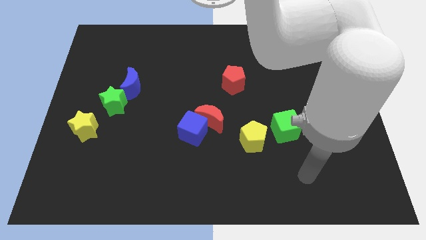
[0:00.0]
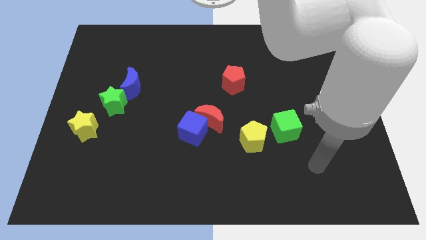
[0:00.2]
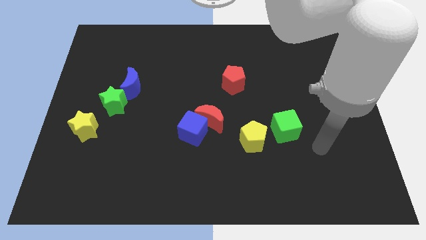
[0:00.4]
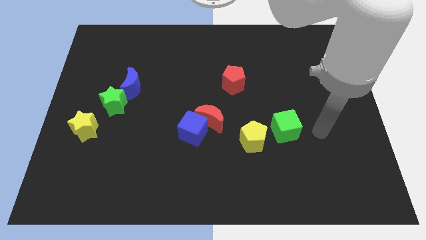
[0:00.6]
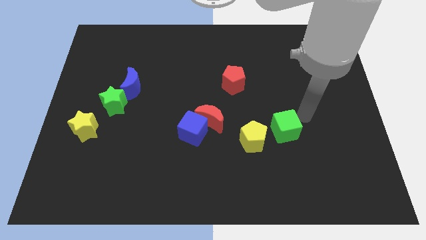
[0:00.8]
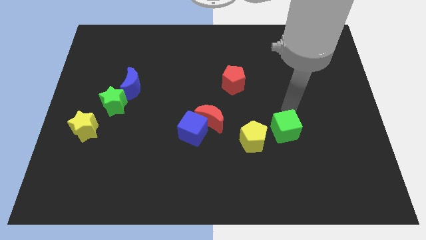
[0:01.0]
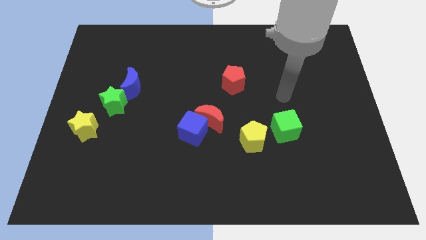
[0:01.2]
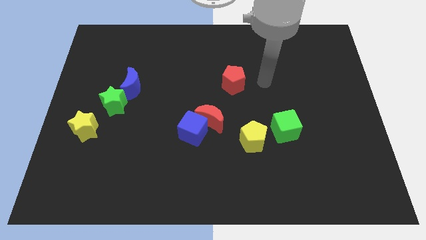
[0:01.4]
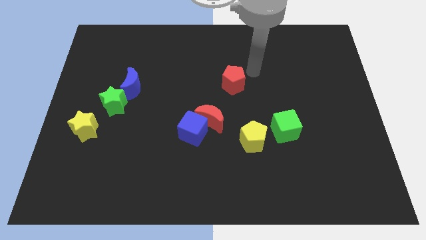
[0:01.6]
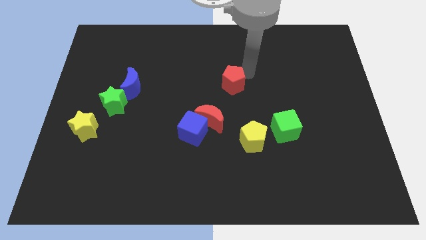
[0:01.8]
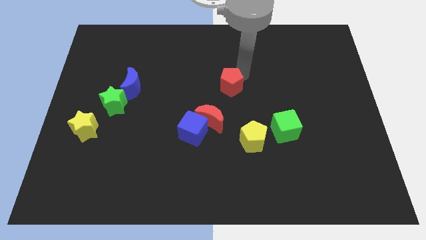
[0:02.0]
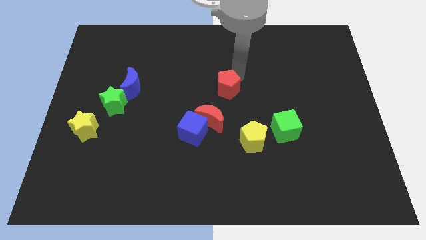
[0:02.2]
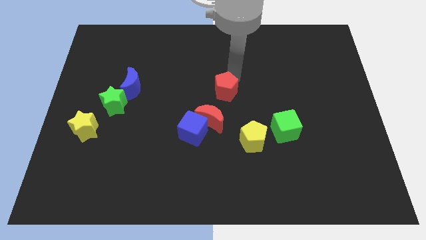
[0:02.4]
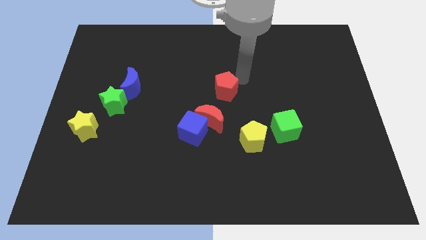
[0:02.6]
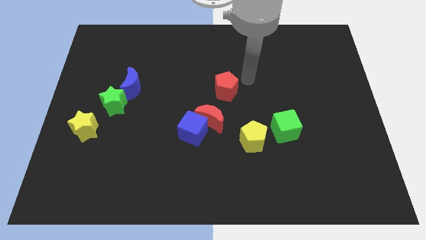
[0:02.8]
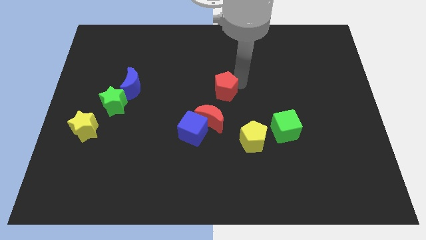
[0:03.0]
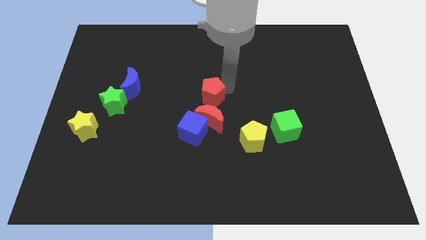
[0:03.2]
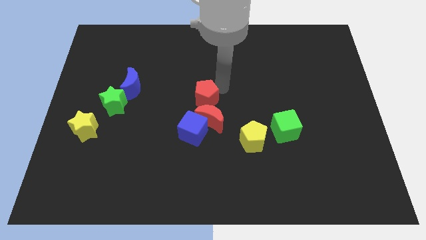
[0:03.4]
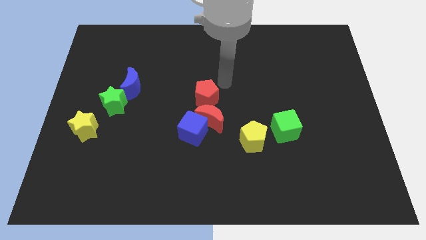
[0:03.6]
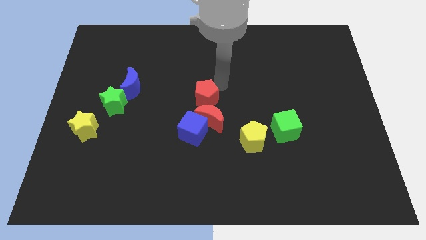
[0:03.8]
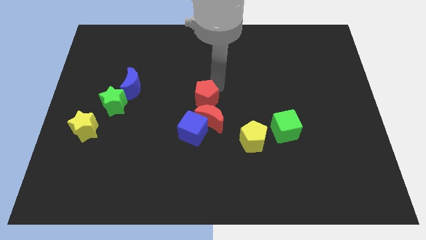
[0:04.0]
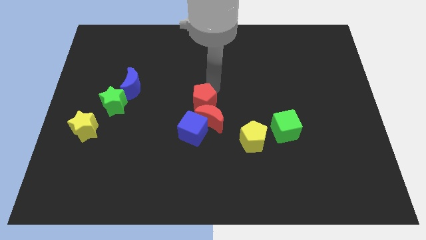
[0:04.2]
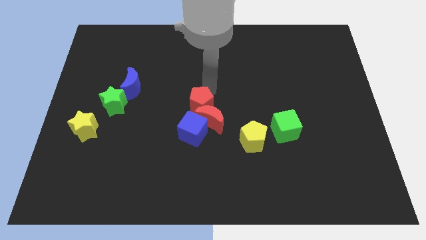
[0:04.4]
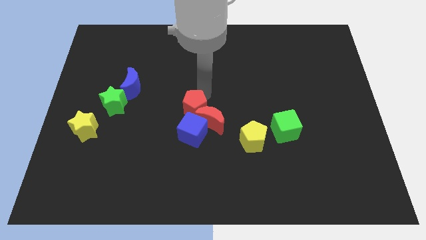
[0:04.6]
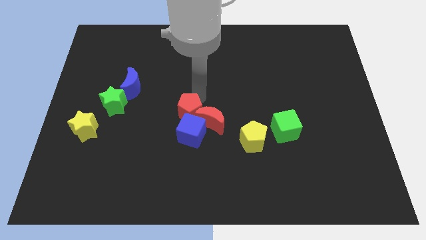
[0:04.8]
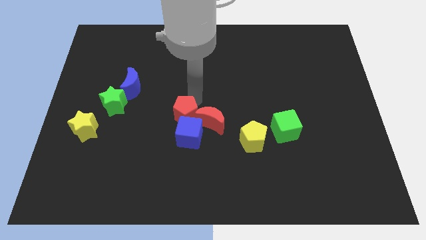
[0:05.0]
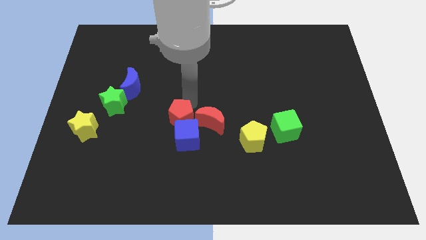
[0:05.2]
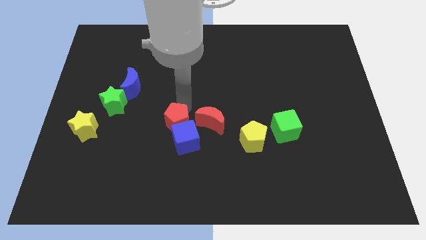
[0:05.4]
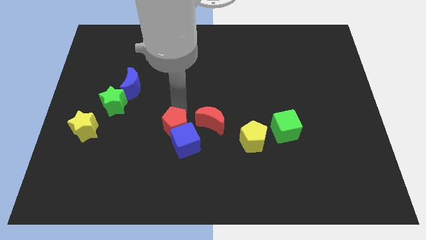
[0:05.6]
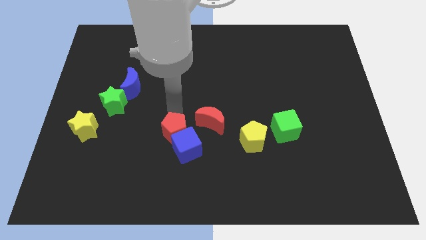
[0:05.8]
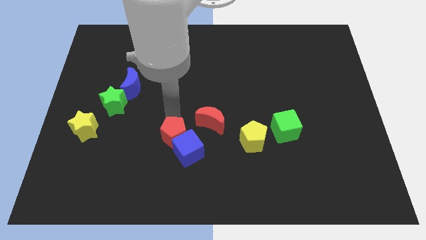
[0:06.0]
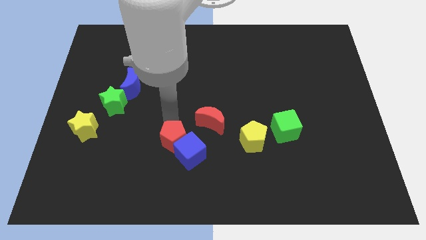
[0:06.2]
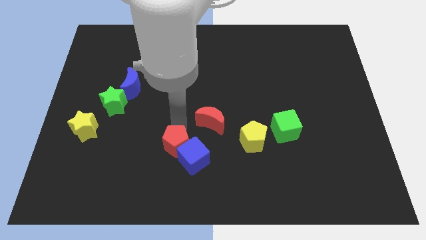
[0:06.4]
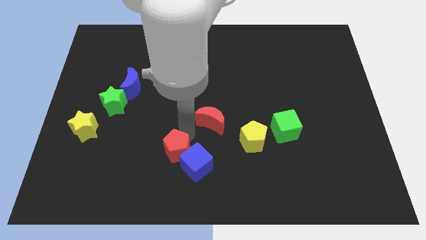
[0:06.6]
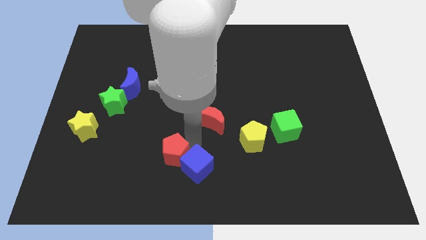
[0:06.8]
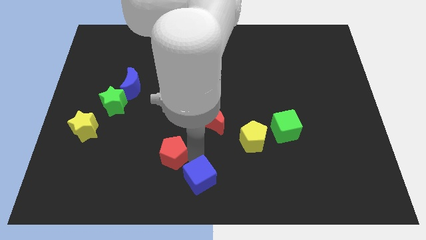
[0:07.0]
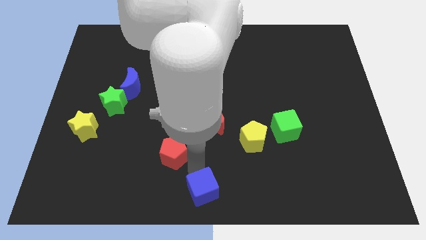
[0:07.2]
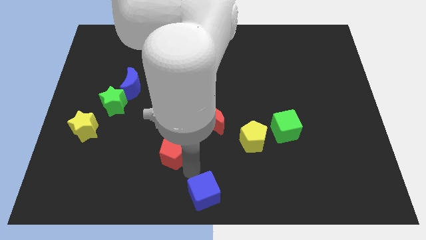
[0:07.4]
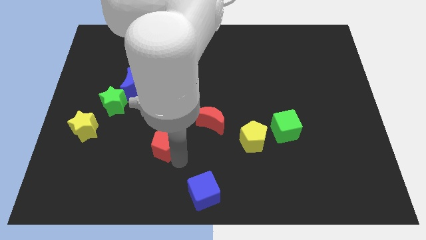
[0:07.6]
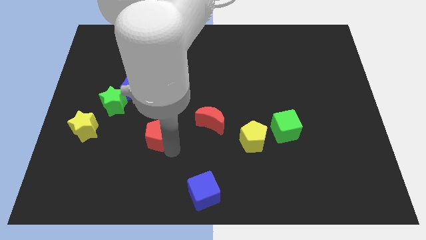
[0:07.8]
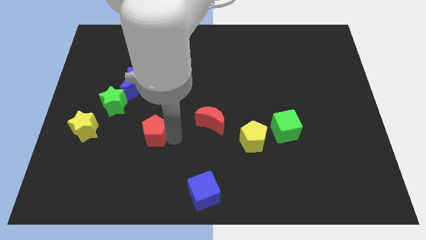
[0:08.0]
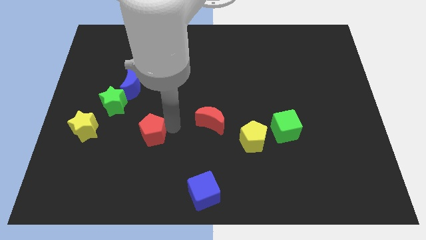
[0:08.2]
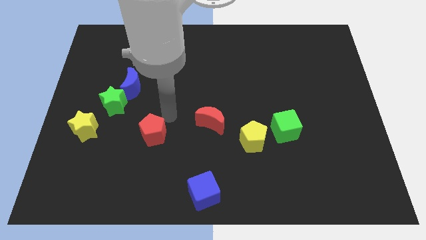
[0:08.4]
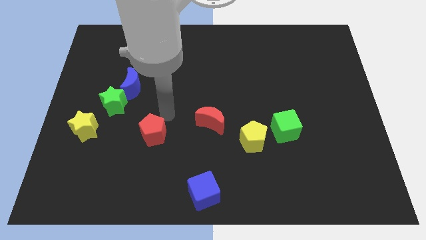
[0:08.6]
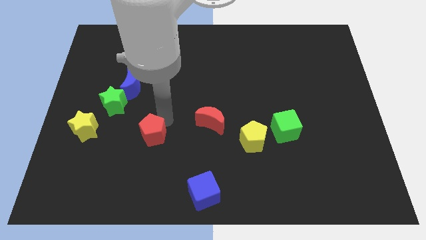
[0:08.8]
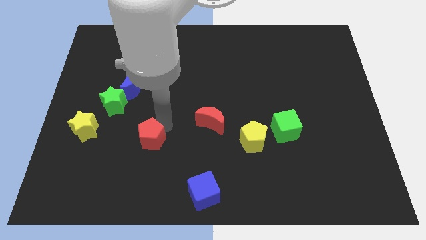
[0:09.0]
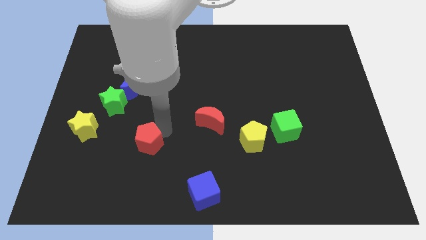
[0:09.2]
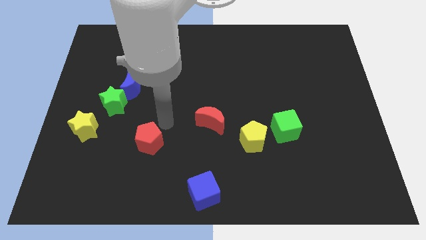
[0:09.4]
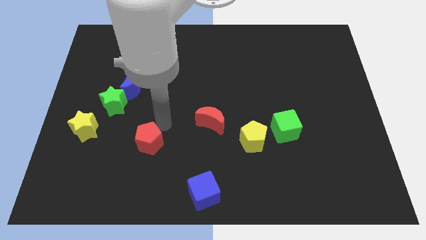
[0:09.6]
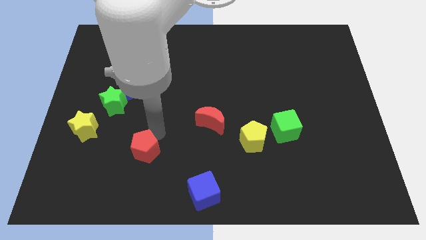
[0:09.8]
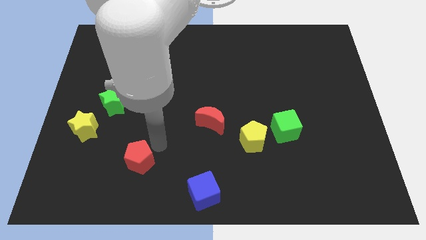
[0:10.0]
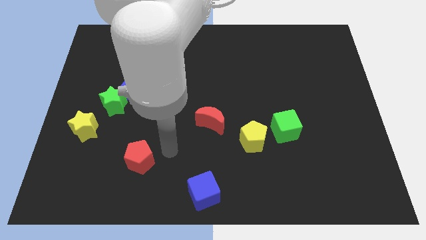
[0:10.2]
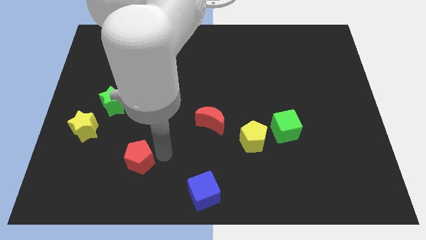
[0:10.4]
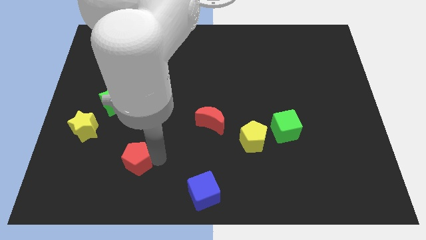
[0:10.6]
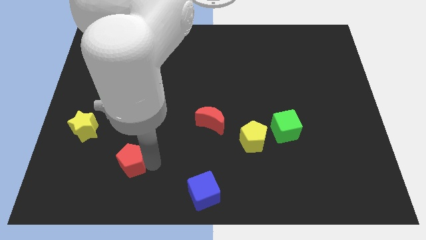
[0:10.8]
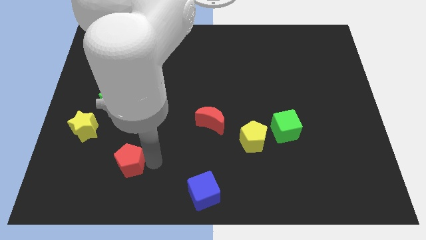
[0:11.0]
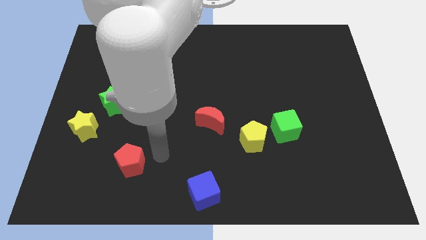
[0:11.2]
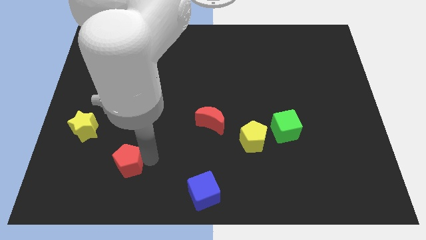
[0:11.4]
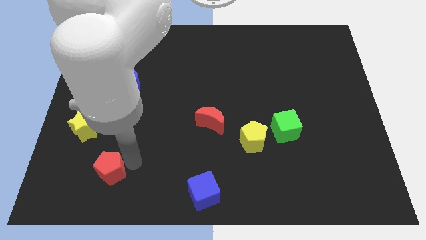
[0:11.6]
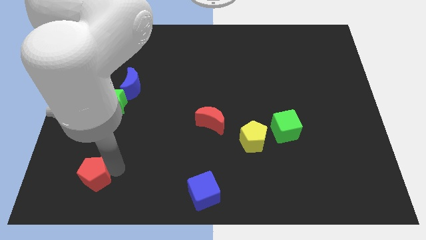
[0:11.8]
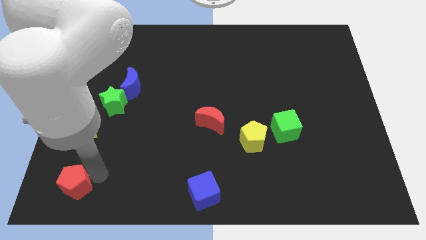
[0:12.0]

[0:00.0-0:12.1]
push the red pentagon to the lower left corner

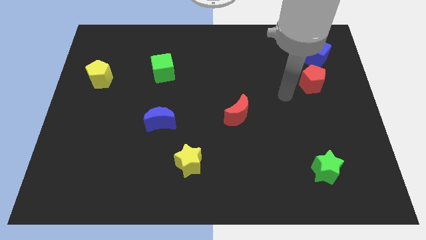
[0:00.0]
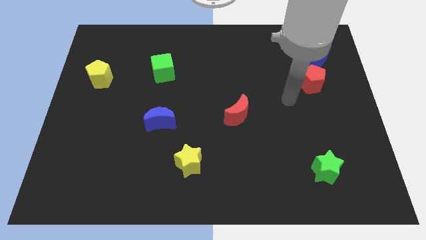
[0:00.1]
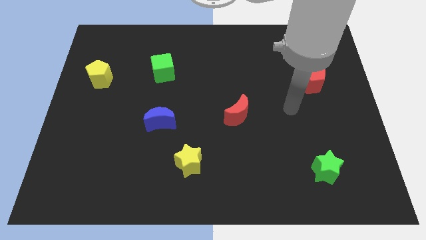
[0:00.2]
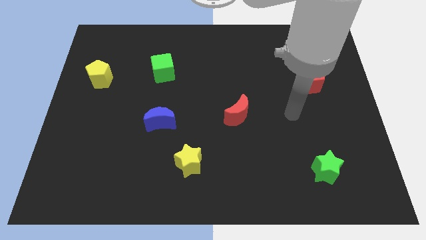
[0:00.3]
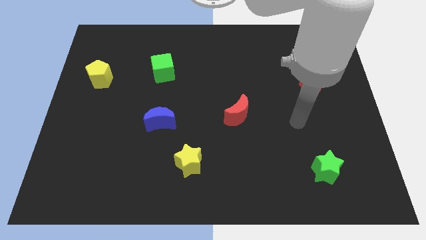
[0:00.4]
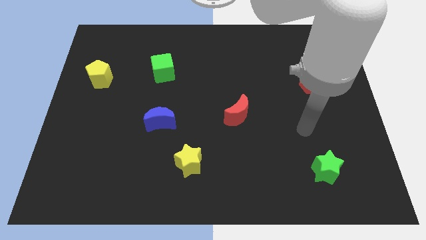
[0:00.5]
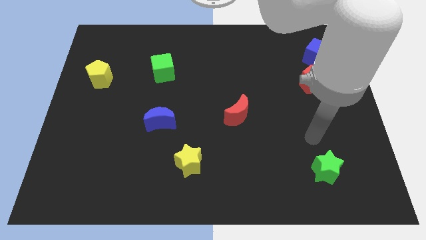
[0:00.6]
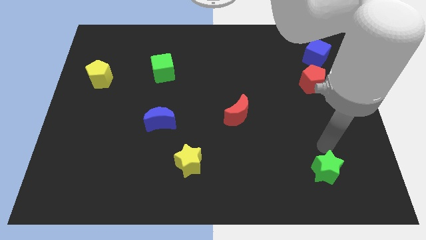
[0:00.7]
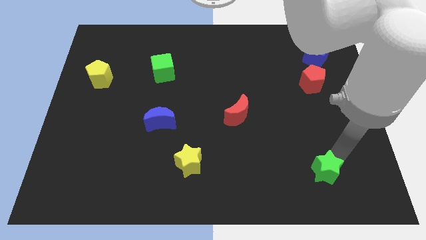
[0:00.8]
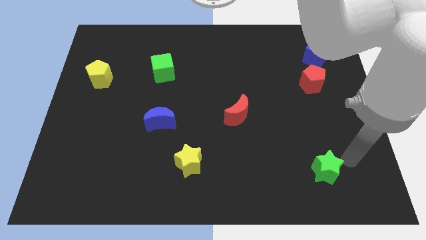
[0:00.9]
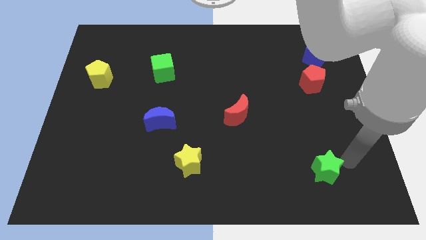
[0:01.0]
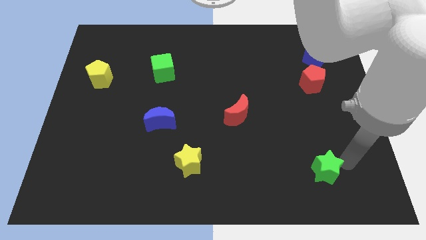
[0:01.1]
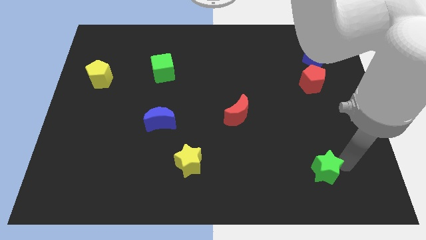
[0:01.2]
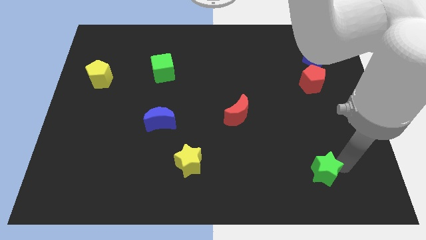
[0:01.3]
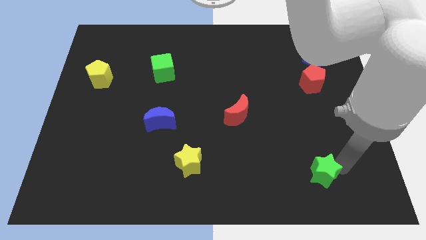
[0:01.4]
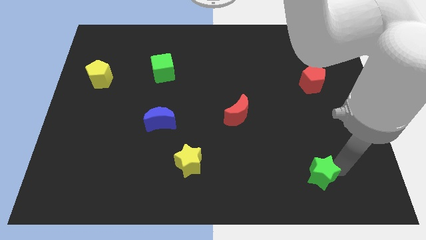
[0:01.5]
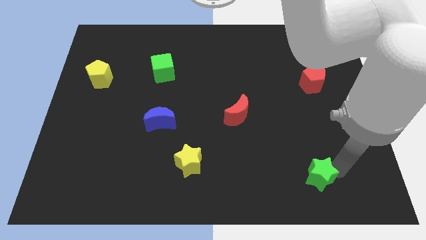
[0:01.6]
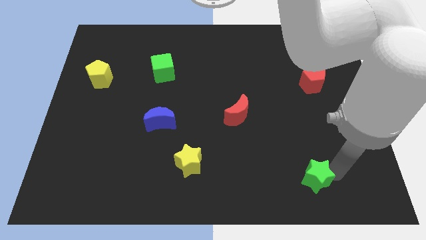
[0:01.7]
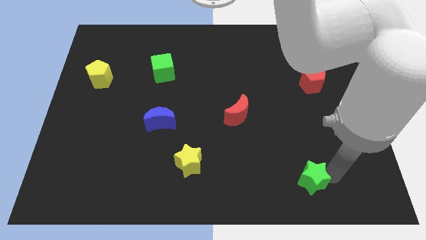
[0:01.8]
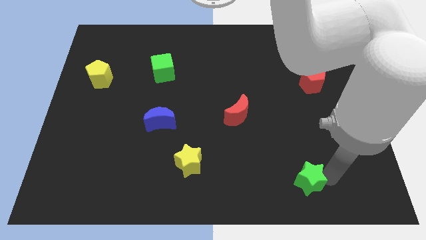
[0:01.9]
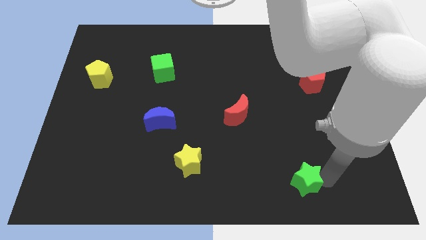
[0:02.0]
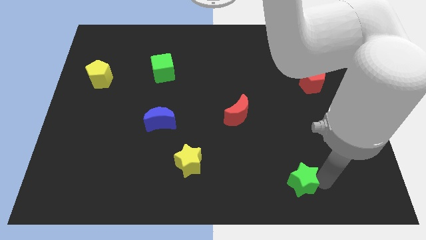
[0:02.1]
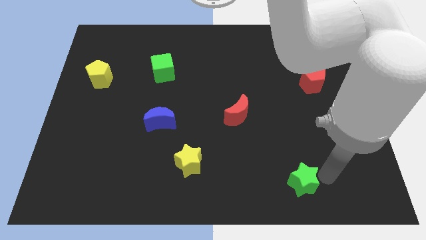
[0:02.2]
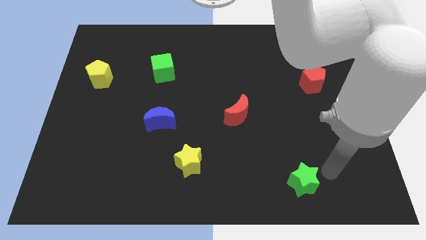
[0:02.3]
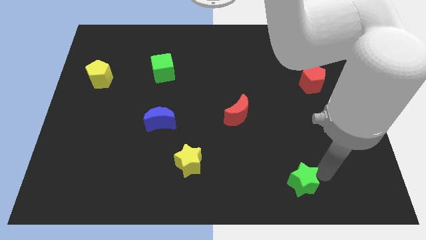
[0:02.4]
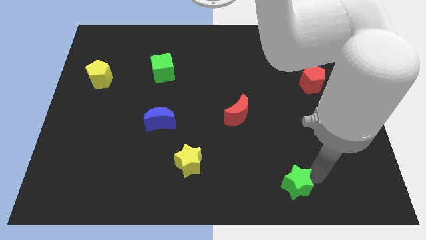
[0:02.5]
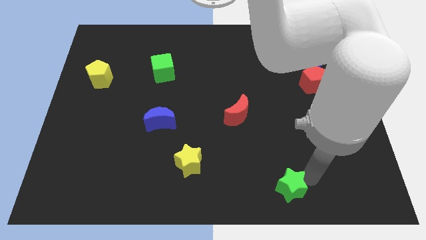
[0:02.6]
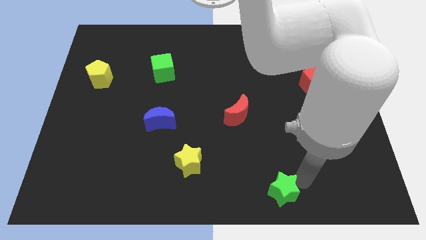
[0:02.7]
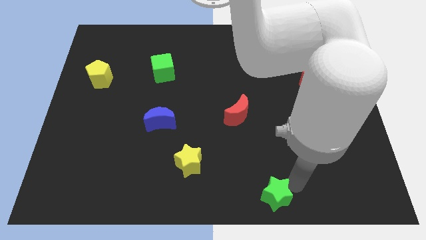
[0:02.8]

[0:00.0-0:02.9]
move the green star to the bottom
